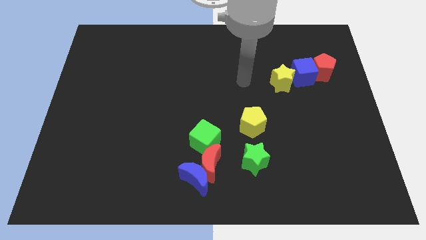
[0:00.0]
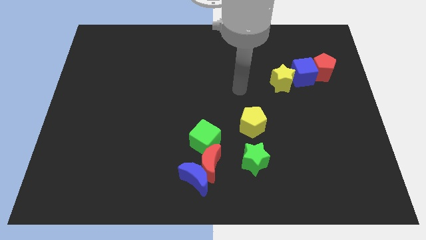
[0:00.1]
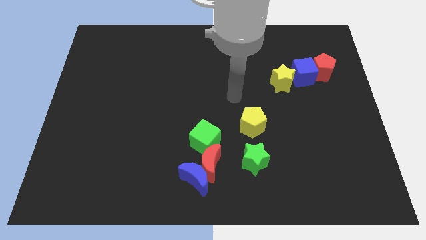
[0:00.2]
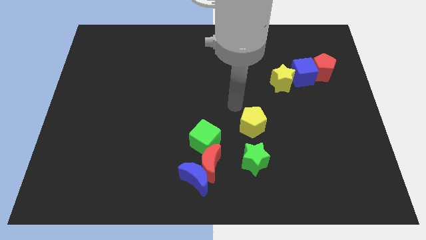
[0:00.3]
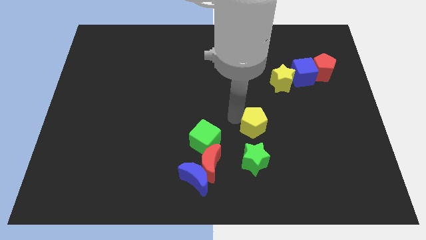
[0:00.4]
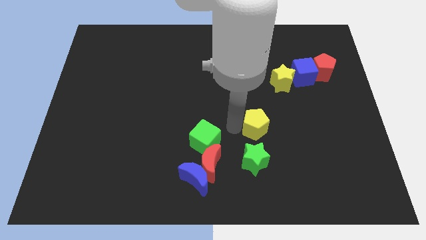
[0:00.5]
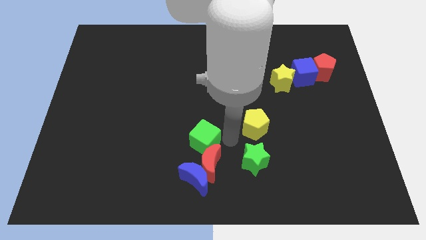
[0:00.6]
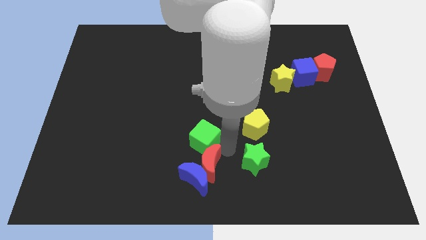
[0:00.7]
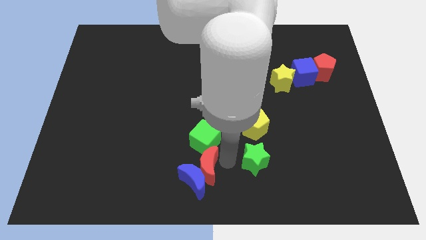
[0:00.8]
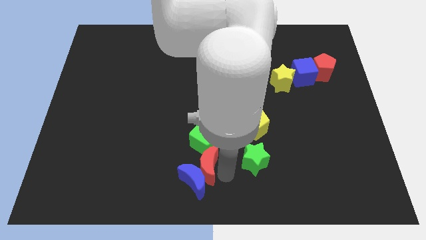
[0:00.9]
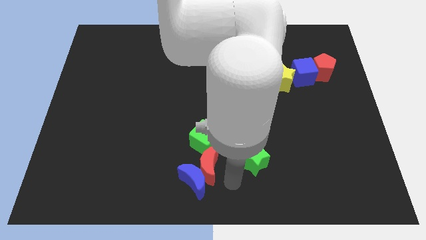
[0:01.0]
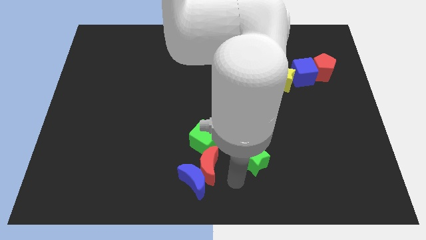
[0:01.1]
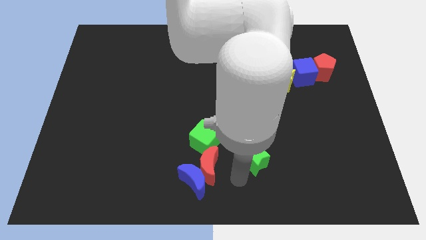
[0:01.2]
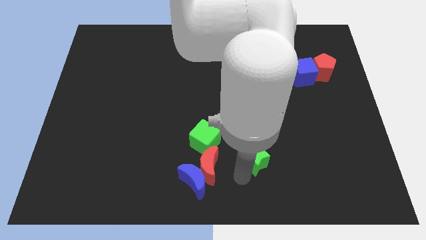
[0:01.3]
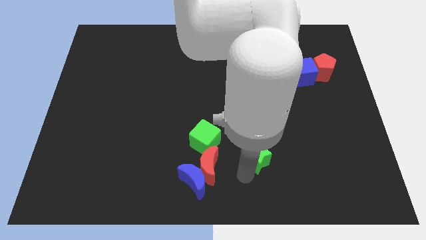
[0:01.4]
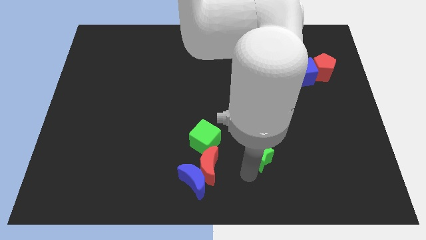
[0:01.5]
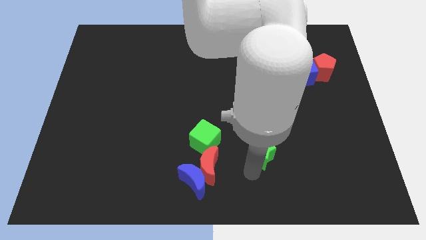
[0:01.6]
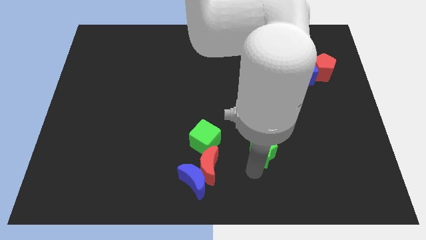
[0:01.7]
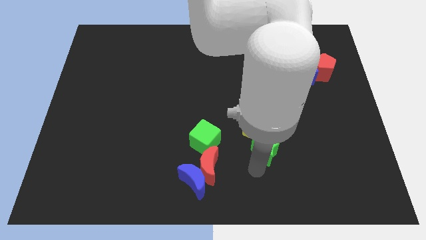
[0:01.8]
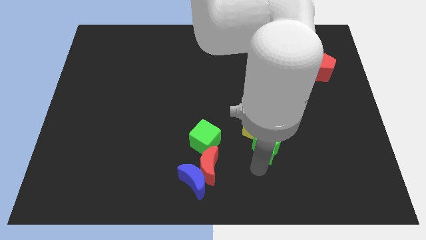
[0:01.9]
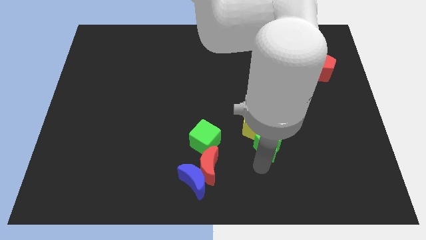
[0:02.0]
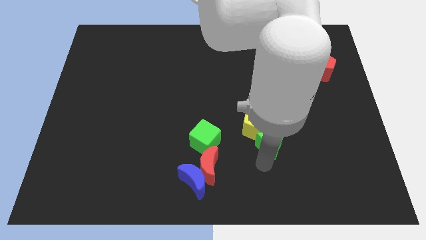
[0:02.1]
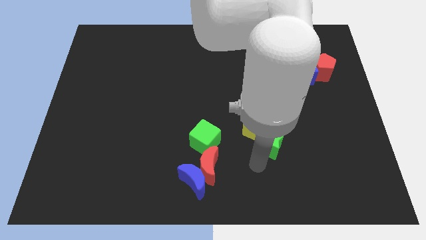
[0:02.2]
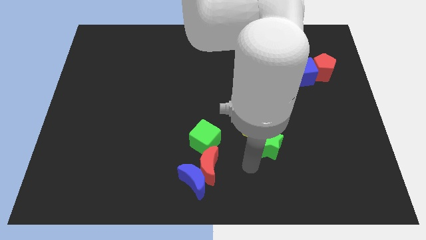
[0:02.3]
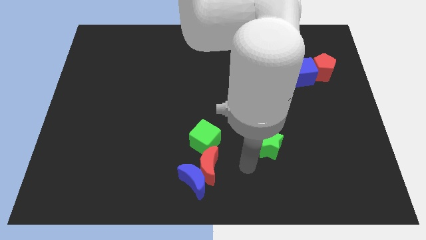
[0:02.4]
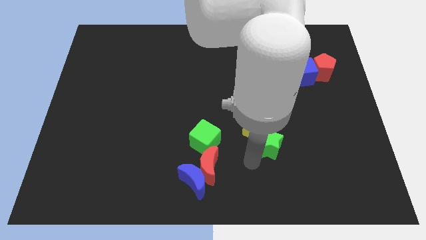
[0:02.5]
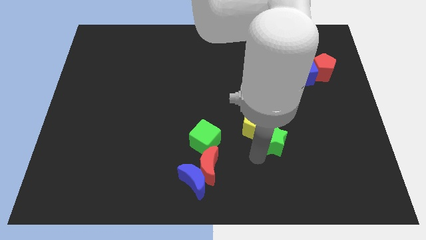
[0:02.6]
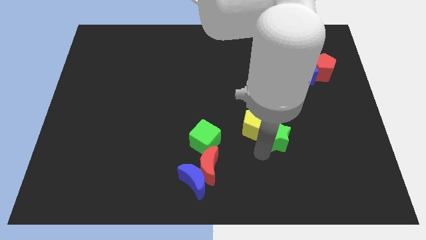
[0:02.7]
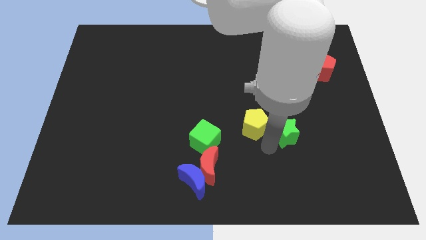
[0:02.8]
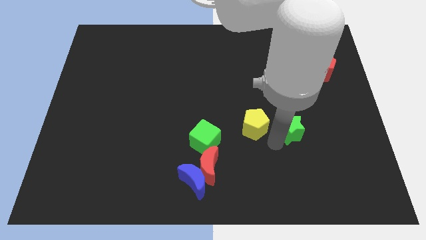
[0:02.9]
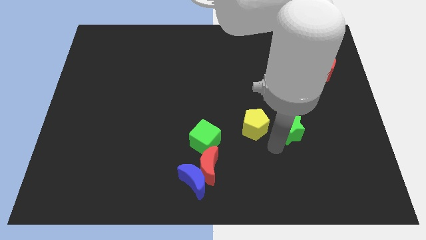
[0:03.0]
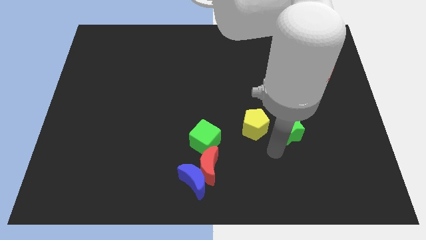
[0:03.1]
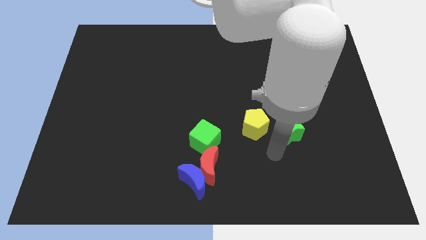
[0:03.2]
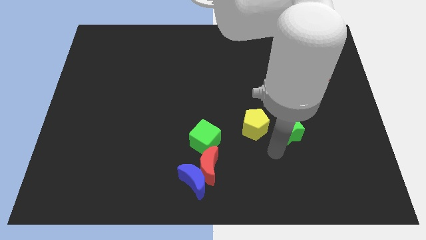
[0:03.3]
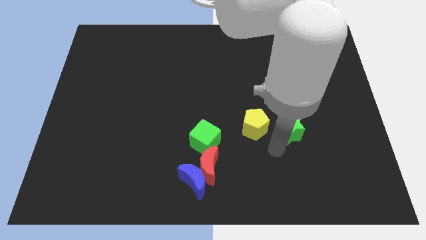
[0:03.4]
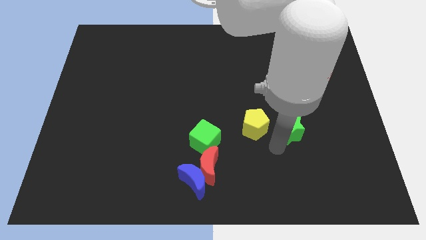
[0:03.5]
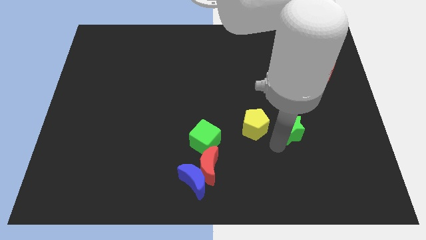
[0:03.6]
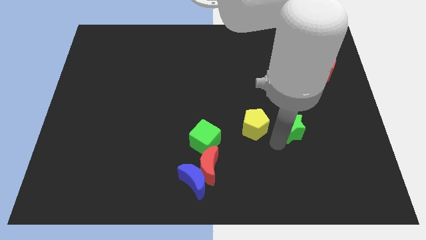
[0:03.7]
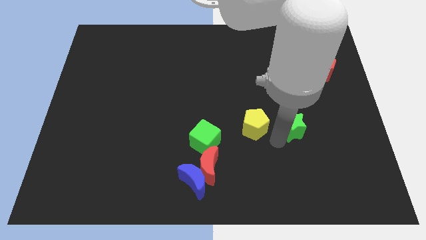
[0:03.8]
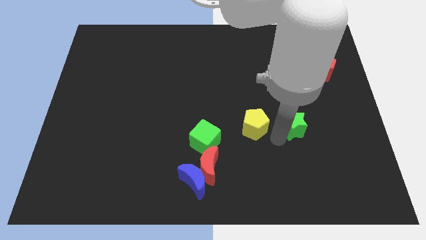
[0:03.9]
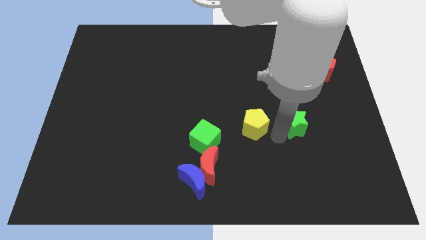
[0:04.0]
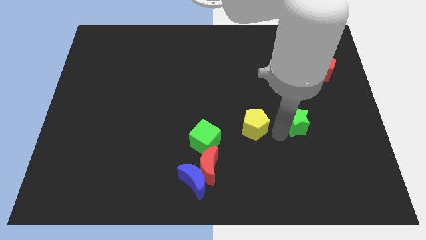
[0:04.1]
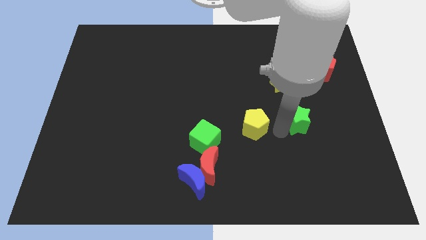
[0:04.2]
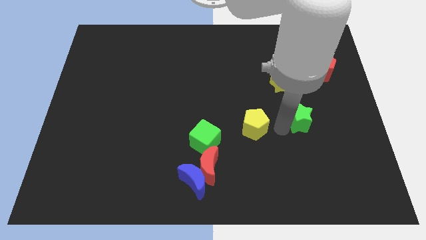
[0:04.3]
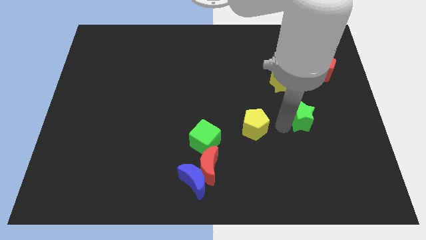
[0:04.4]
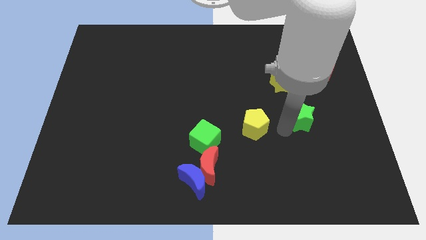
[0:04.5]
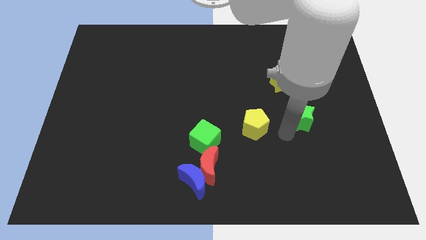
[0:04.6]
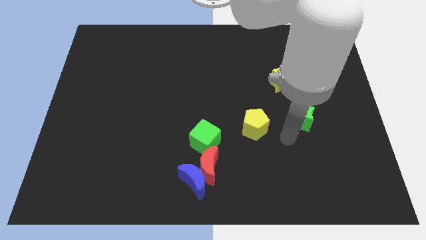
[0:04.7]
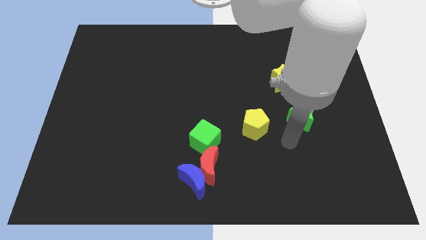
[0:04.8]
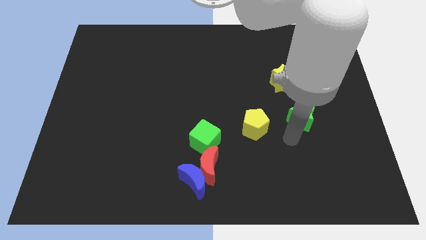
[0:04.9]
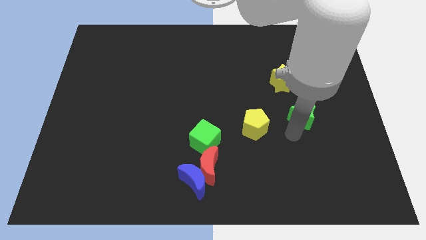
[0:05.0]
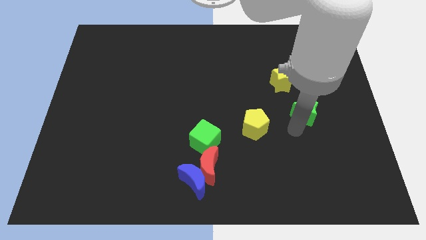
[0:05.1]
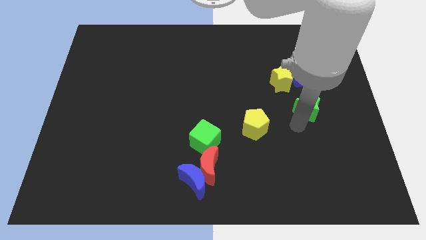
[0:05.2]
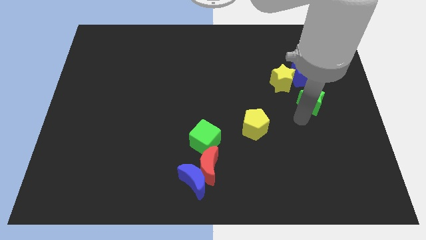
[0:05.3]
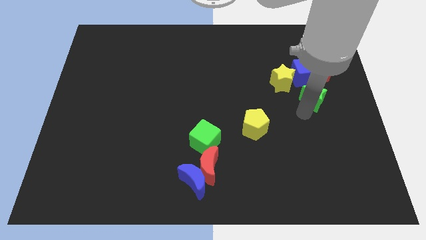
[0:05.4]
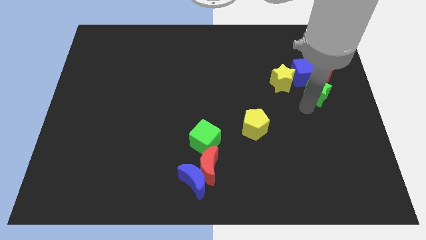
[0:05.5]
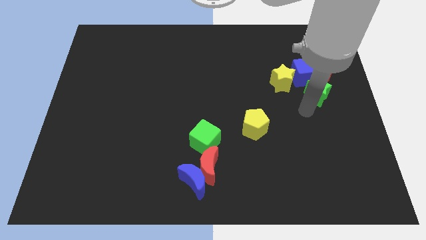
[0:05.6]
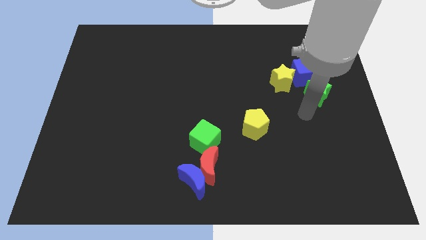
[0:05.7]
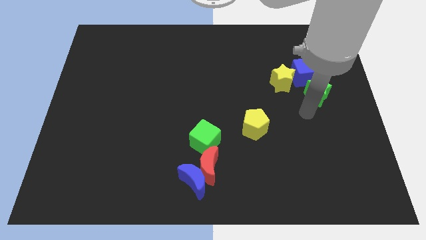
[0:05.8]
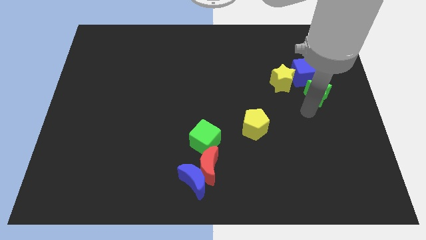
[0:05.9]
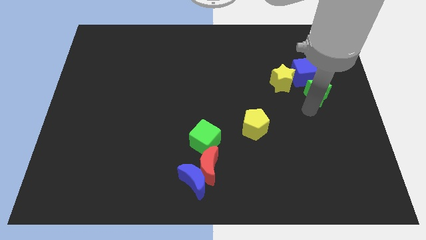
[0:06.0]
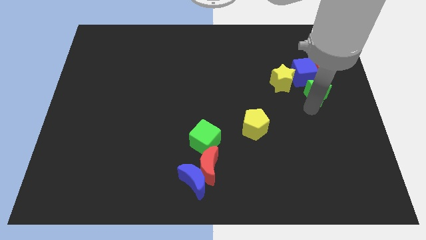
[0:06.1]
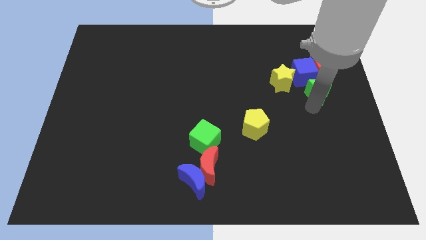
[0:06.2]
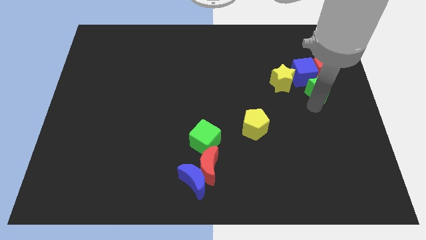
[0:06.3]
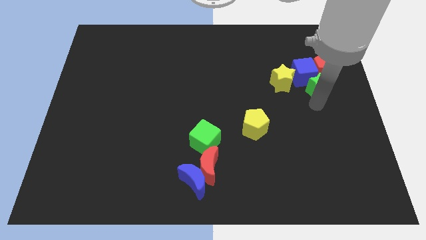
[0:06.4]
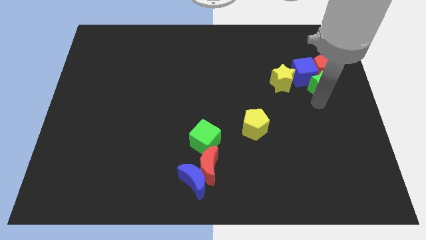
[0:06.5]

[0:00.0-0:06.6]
put the green star to the red pentagon

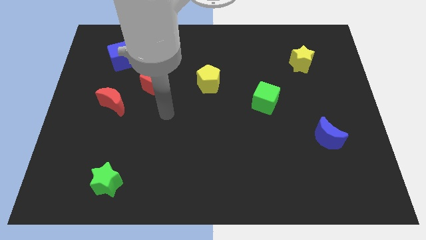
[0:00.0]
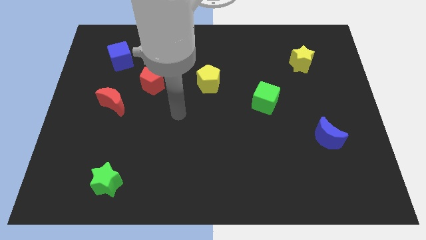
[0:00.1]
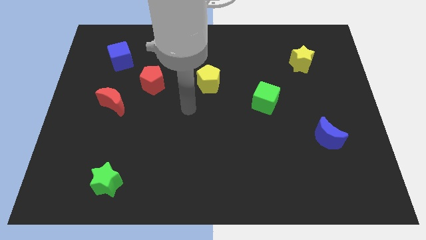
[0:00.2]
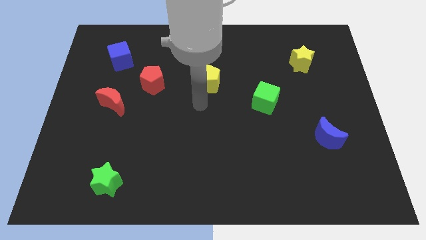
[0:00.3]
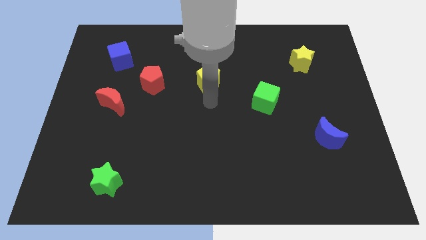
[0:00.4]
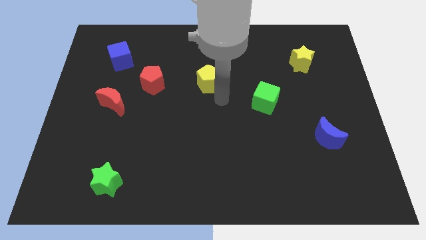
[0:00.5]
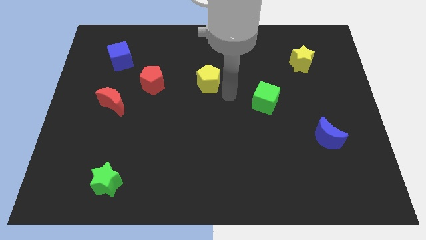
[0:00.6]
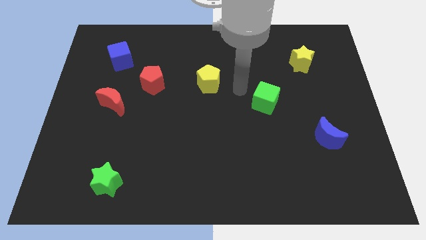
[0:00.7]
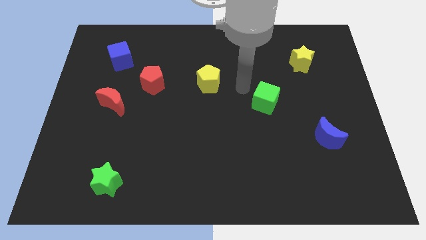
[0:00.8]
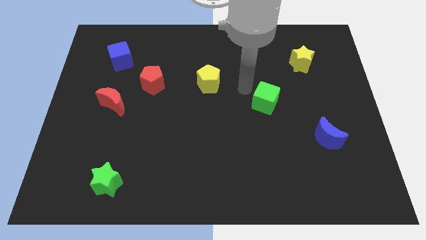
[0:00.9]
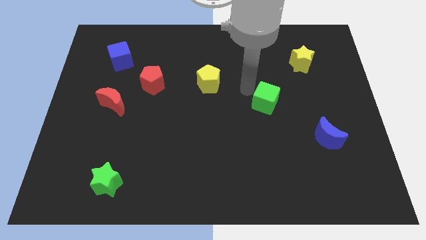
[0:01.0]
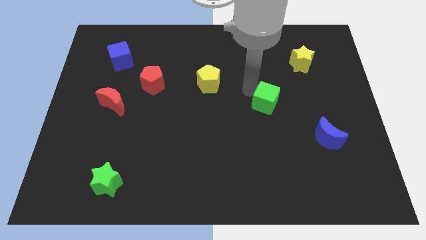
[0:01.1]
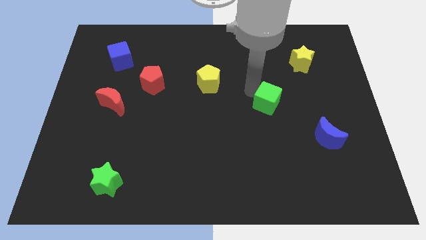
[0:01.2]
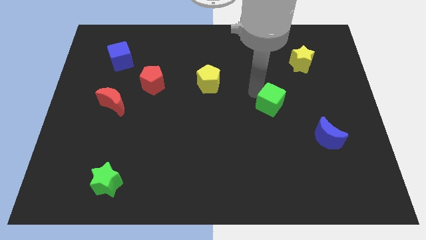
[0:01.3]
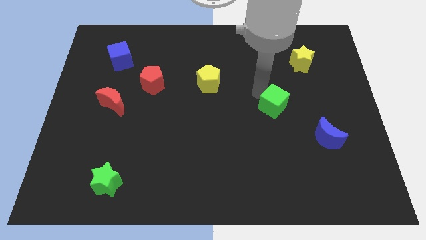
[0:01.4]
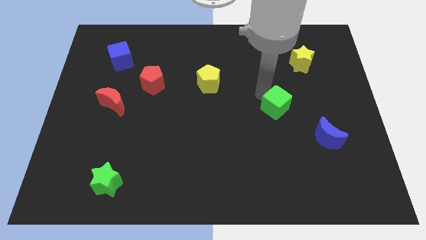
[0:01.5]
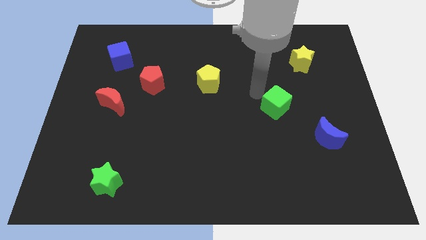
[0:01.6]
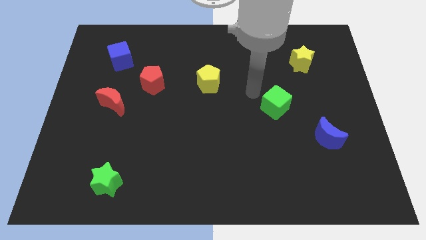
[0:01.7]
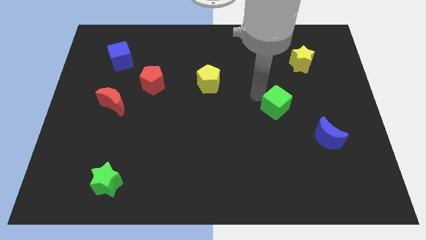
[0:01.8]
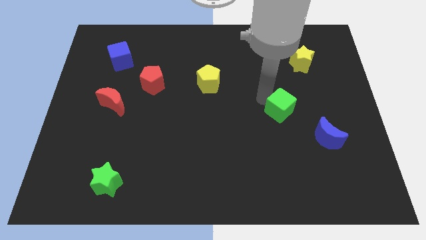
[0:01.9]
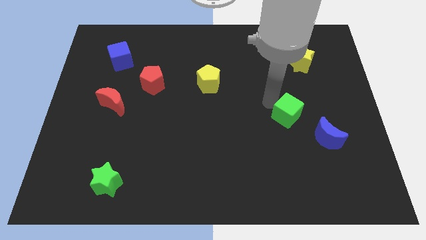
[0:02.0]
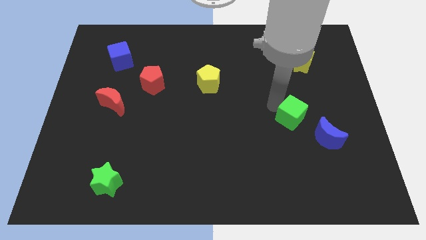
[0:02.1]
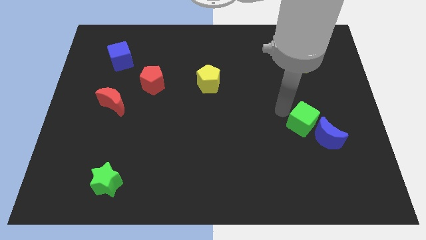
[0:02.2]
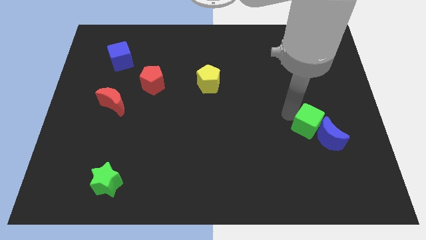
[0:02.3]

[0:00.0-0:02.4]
push the green cube close to the blue moon
